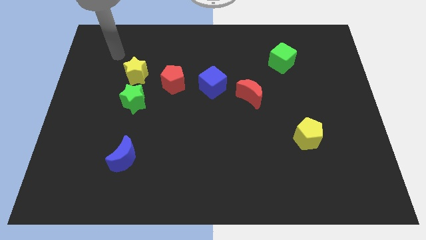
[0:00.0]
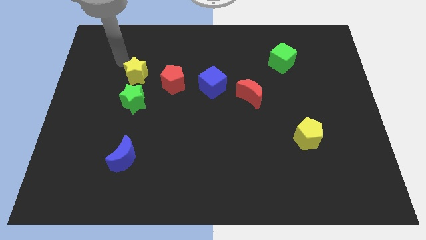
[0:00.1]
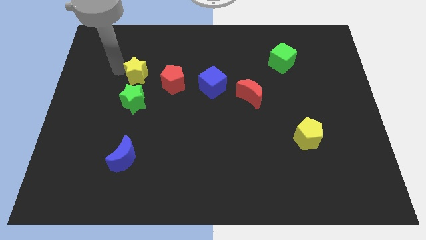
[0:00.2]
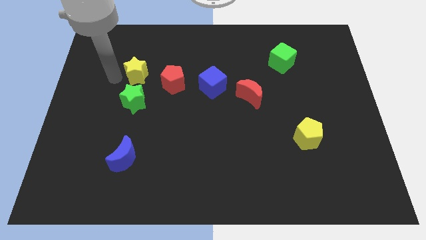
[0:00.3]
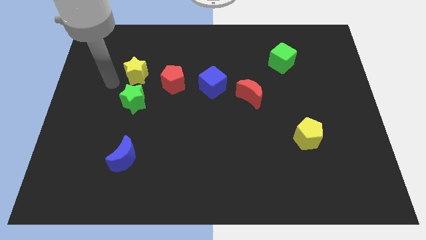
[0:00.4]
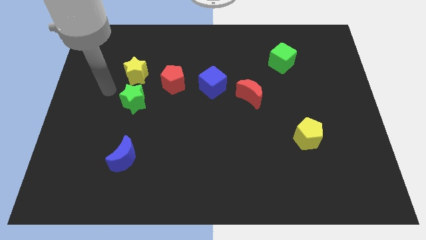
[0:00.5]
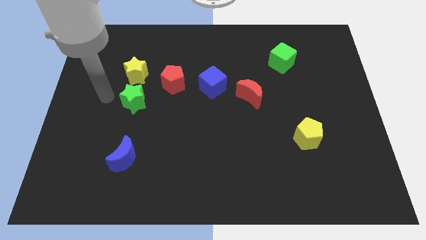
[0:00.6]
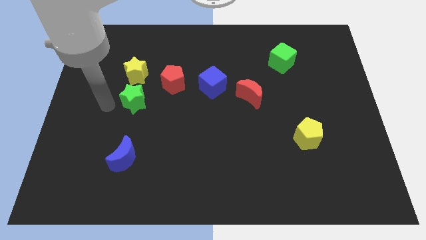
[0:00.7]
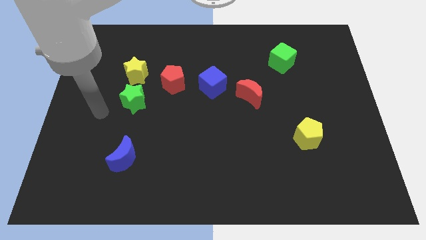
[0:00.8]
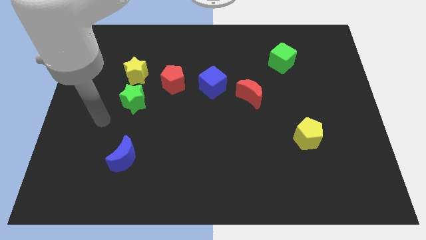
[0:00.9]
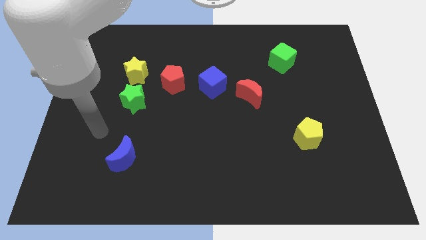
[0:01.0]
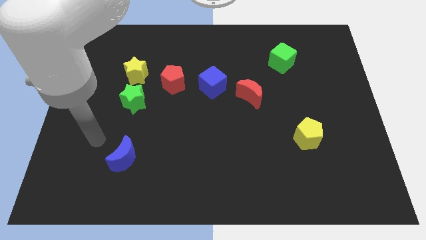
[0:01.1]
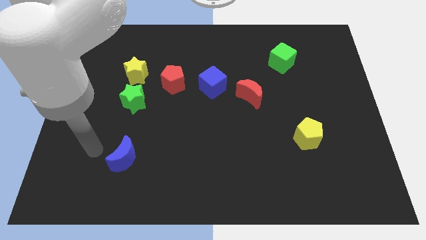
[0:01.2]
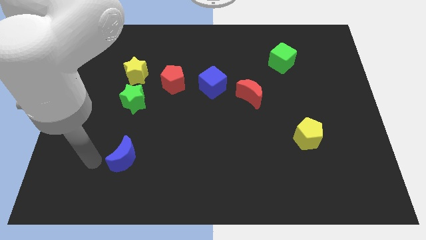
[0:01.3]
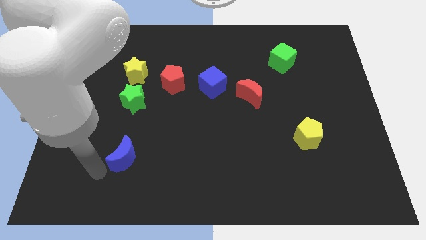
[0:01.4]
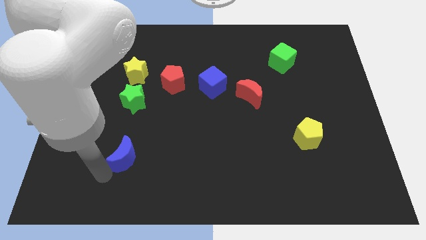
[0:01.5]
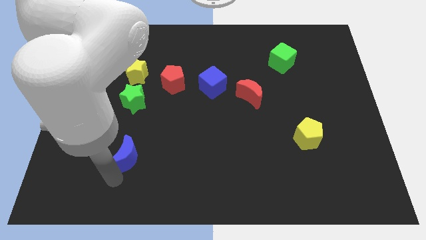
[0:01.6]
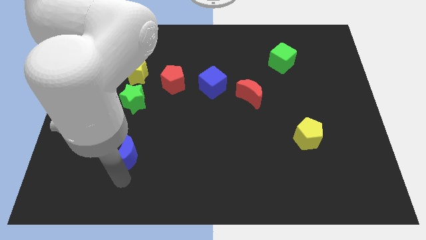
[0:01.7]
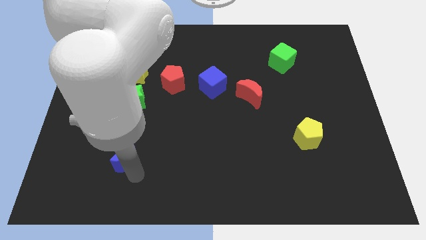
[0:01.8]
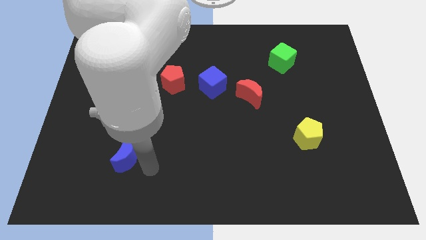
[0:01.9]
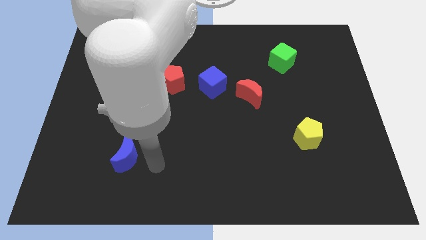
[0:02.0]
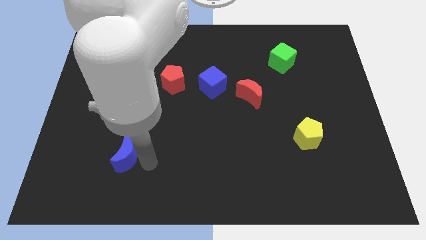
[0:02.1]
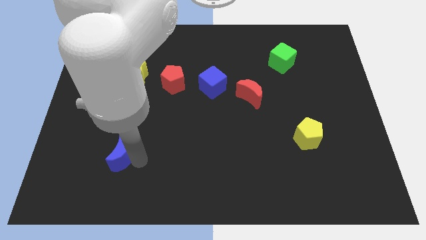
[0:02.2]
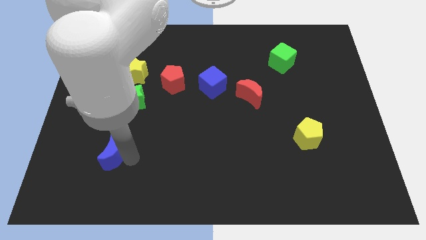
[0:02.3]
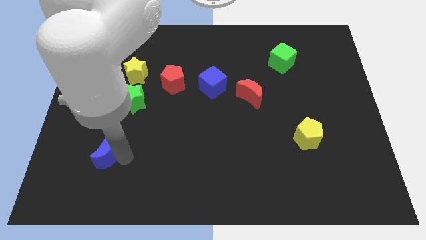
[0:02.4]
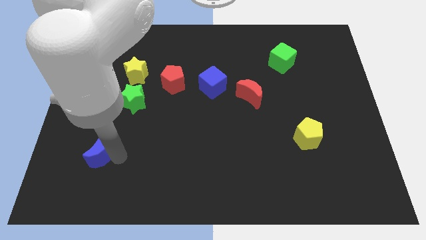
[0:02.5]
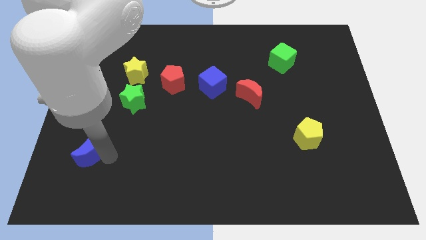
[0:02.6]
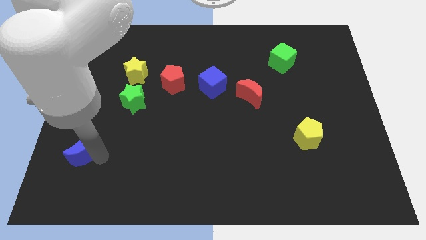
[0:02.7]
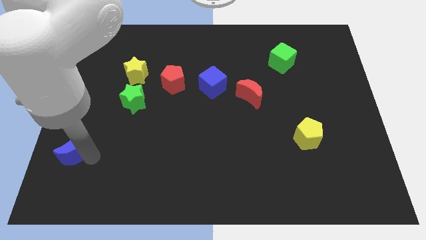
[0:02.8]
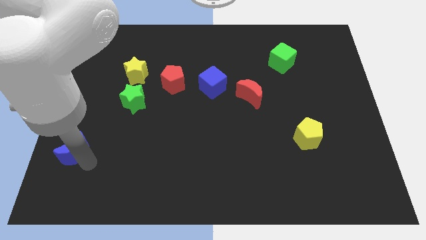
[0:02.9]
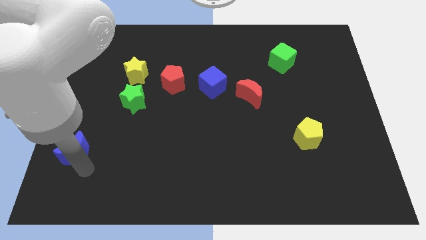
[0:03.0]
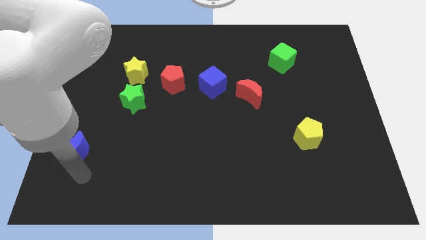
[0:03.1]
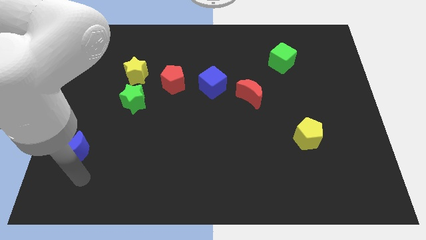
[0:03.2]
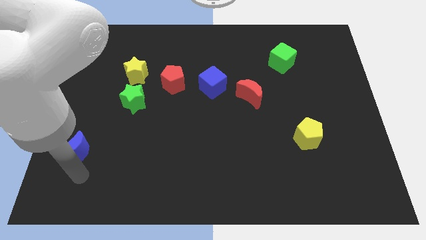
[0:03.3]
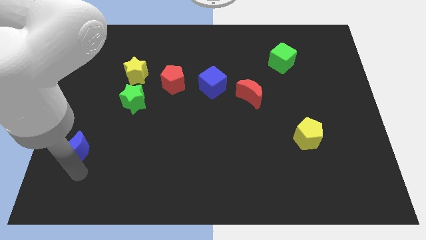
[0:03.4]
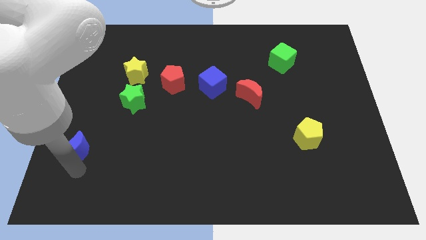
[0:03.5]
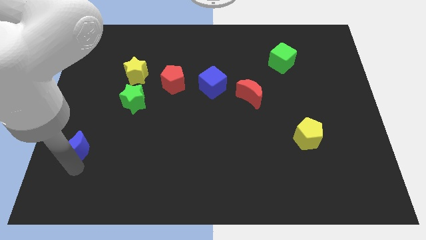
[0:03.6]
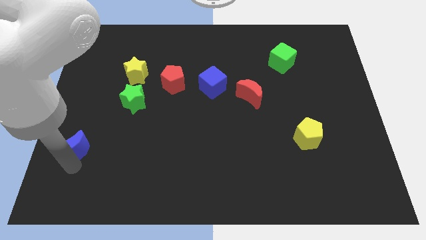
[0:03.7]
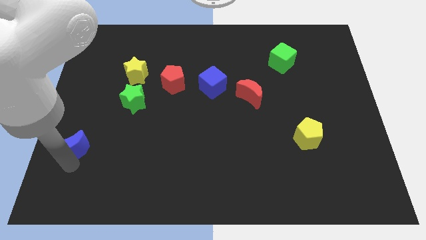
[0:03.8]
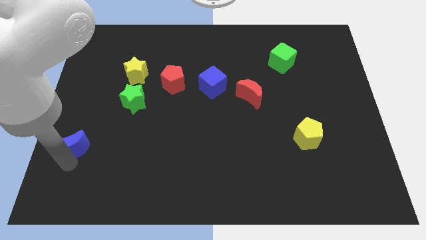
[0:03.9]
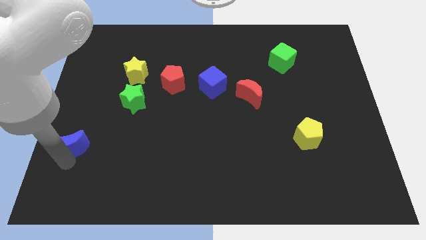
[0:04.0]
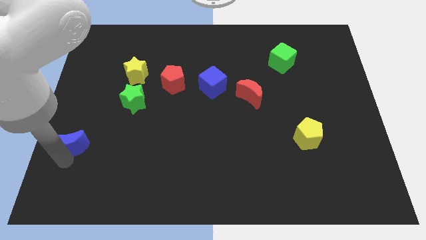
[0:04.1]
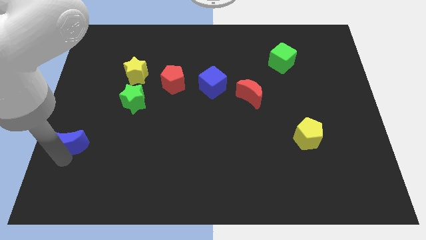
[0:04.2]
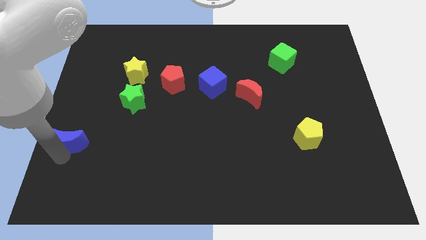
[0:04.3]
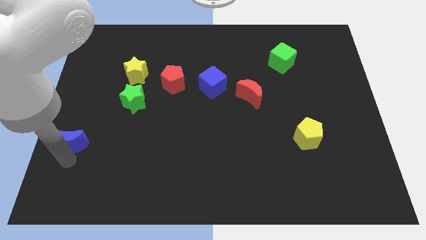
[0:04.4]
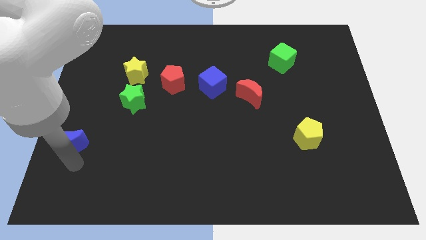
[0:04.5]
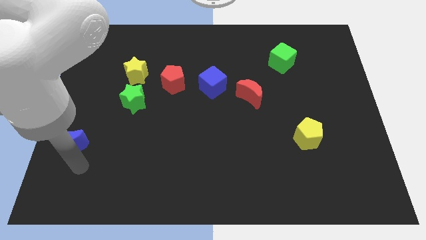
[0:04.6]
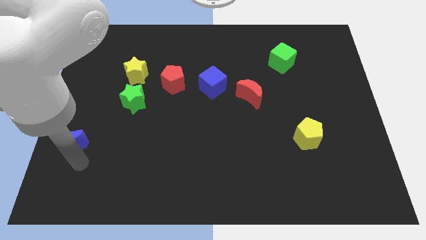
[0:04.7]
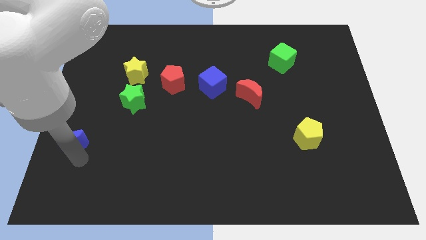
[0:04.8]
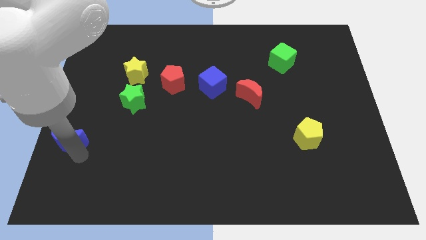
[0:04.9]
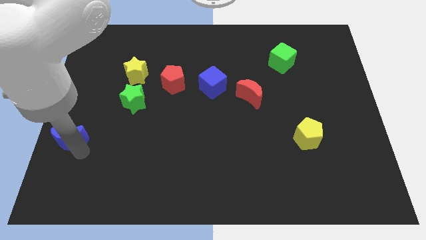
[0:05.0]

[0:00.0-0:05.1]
slide the blue moon to the left side of the board

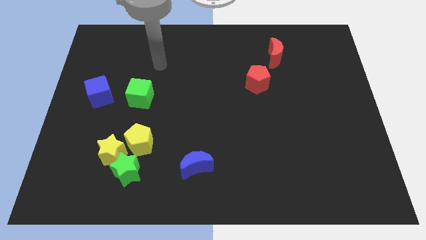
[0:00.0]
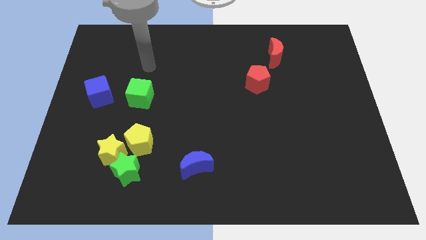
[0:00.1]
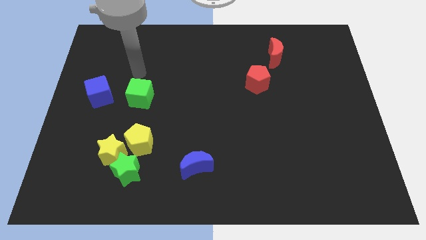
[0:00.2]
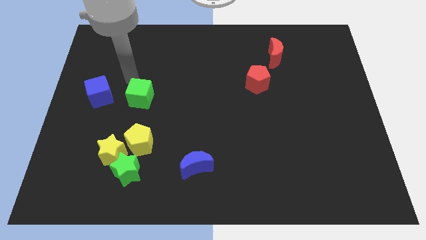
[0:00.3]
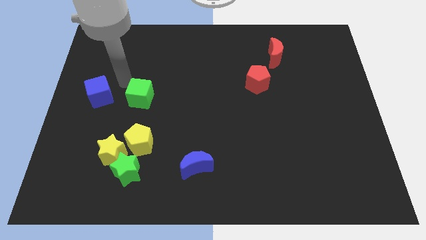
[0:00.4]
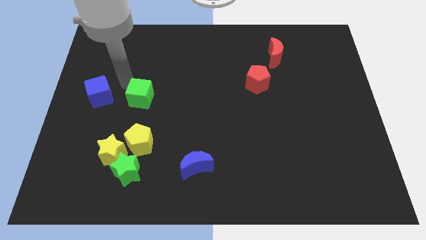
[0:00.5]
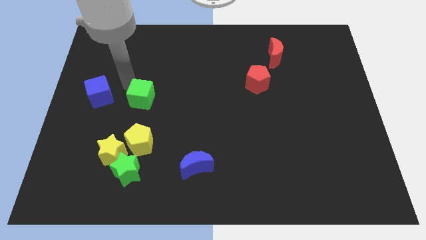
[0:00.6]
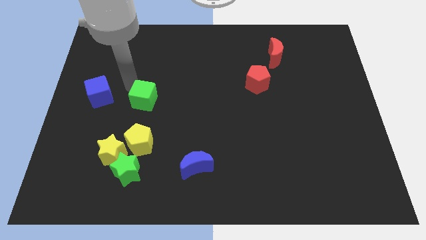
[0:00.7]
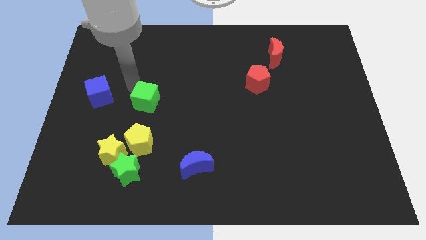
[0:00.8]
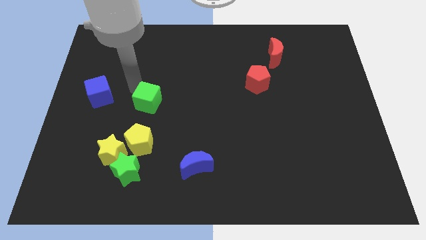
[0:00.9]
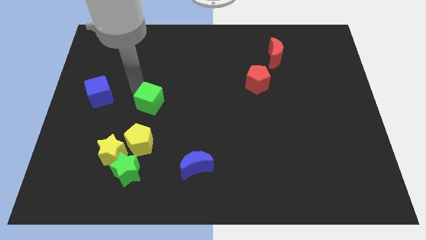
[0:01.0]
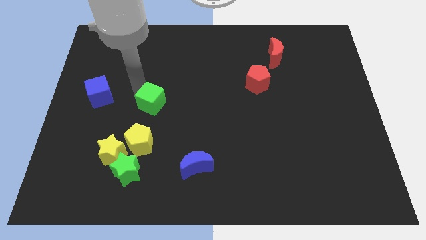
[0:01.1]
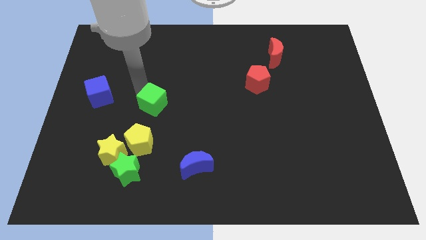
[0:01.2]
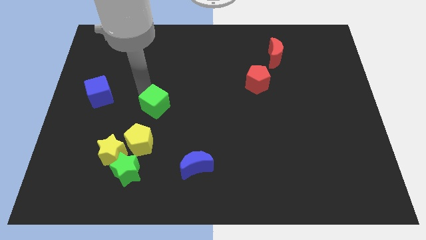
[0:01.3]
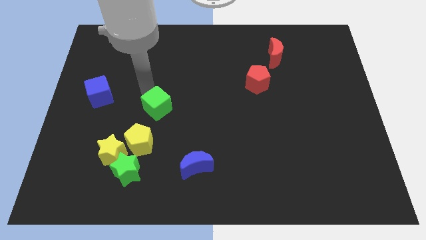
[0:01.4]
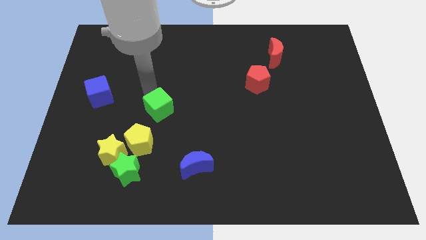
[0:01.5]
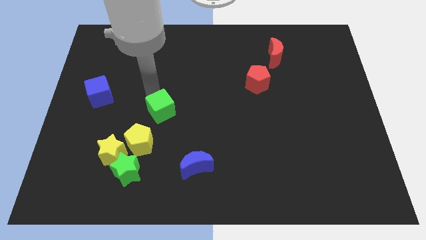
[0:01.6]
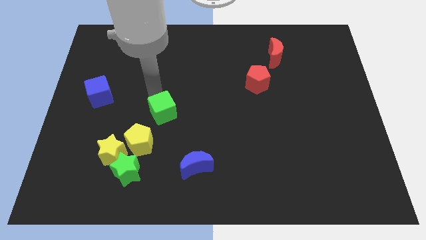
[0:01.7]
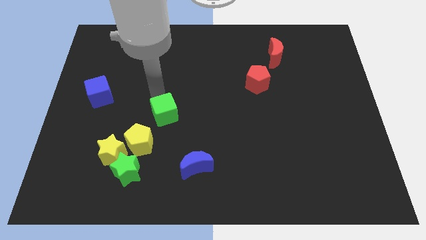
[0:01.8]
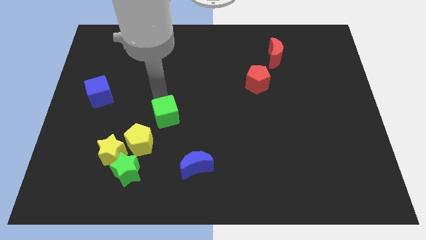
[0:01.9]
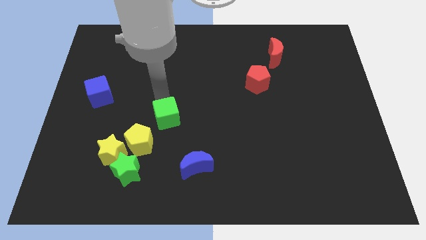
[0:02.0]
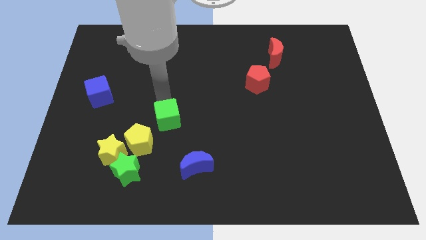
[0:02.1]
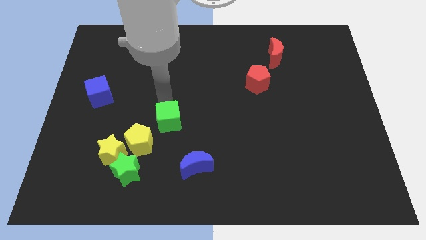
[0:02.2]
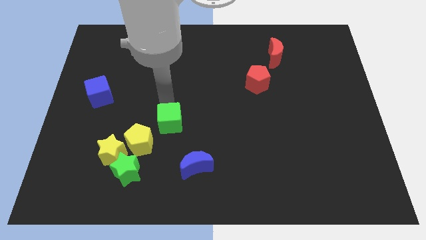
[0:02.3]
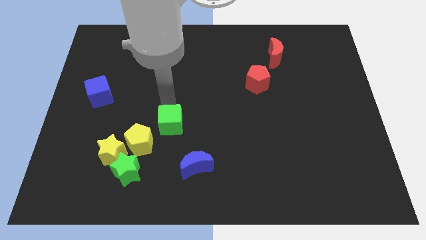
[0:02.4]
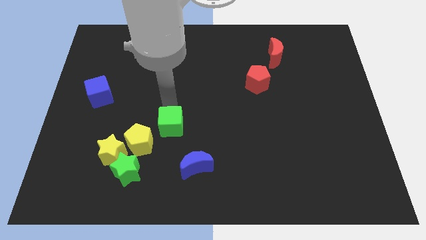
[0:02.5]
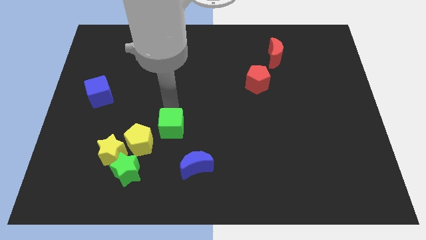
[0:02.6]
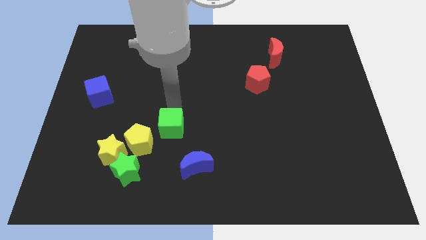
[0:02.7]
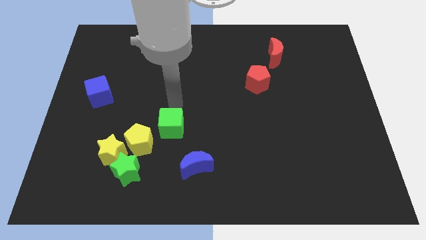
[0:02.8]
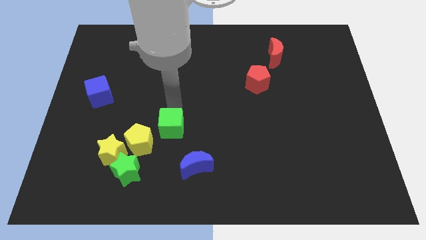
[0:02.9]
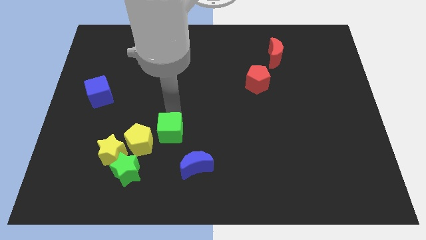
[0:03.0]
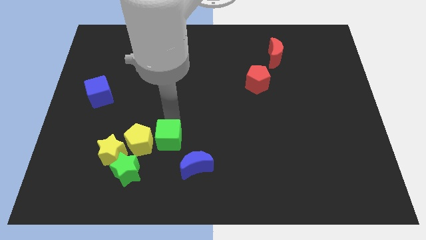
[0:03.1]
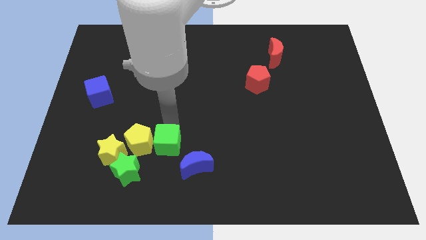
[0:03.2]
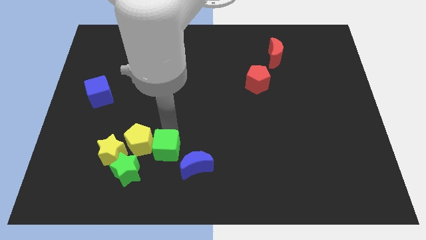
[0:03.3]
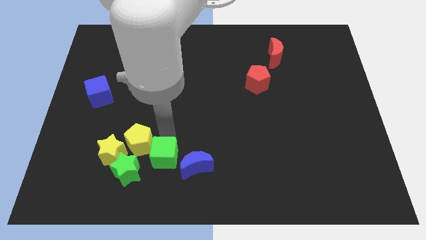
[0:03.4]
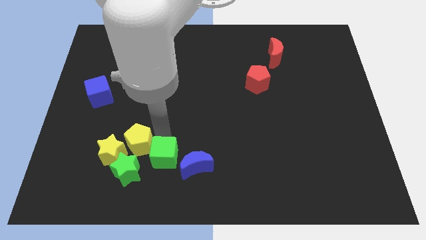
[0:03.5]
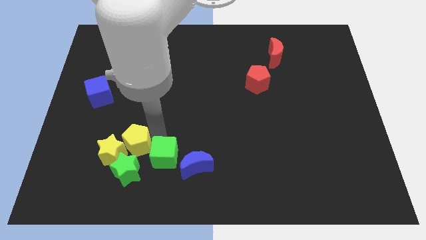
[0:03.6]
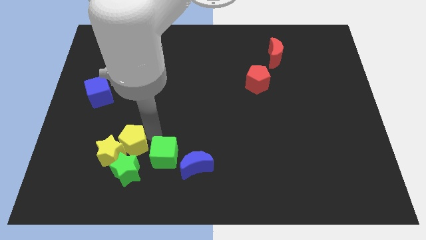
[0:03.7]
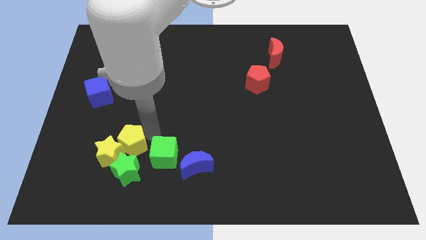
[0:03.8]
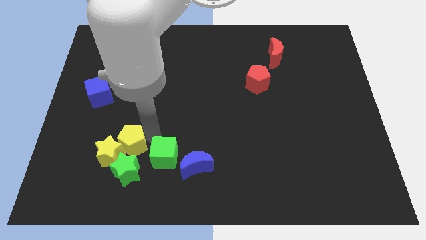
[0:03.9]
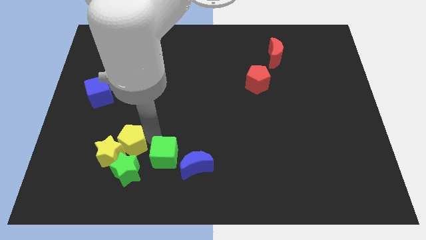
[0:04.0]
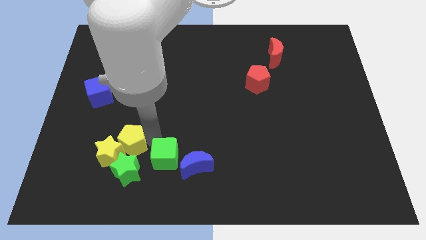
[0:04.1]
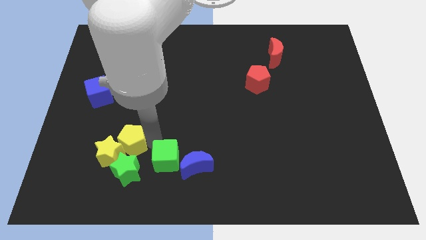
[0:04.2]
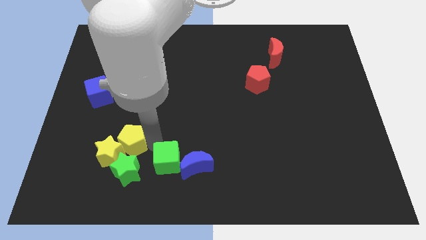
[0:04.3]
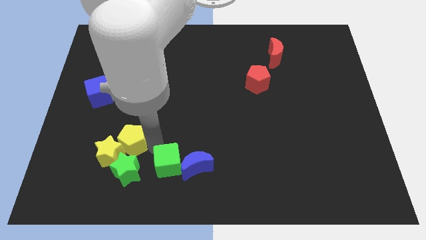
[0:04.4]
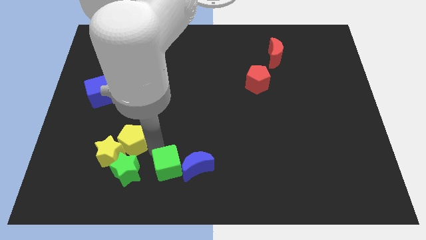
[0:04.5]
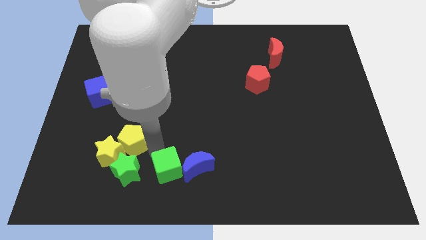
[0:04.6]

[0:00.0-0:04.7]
move the green cube to the bottom
